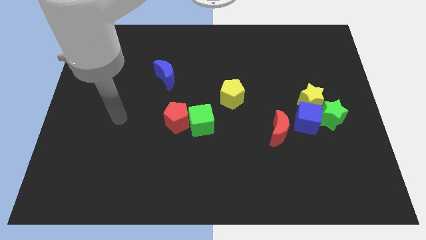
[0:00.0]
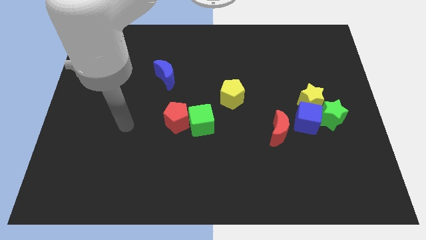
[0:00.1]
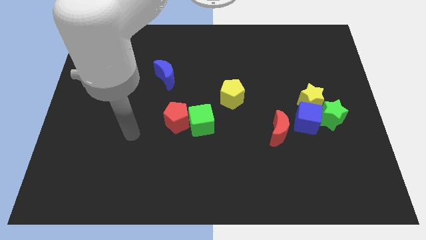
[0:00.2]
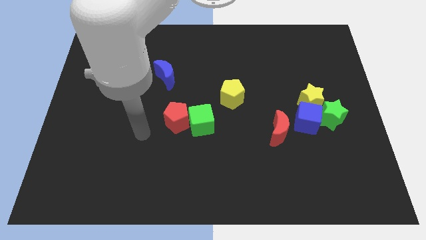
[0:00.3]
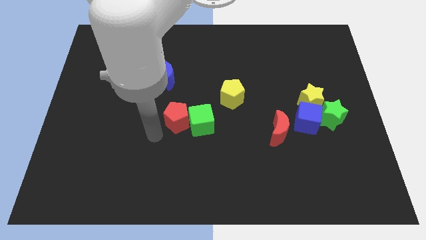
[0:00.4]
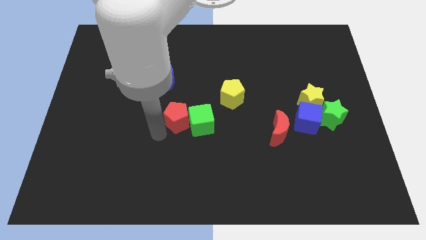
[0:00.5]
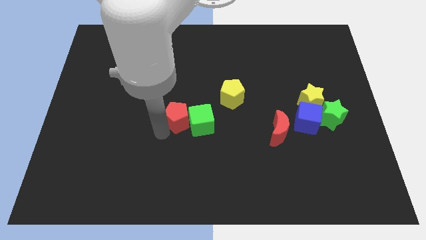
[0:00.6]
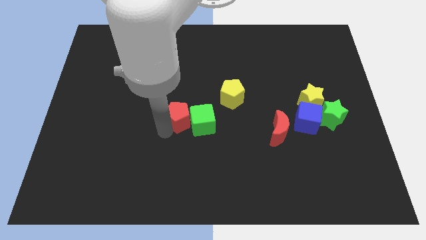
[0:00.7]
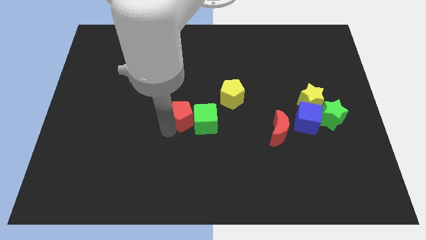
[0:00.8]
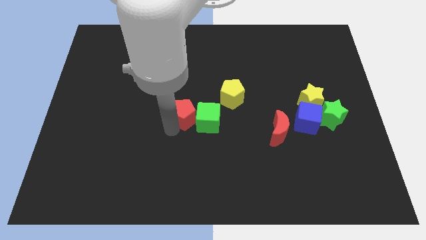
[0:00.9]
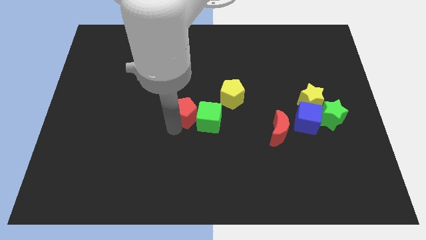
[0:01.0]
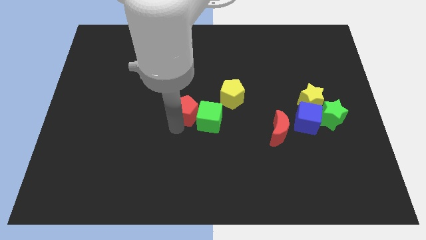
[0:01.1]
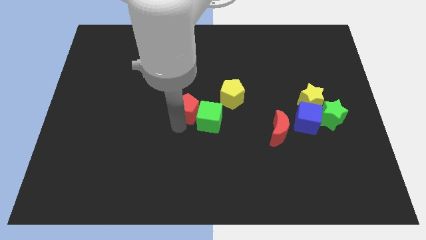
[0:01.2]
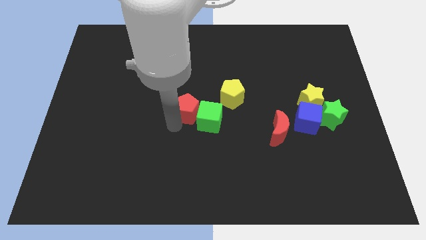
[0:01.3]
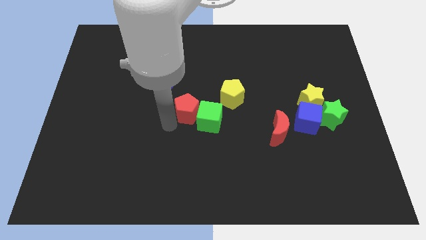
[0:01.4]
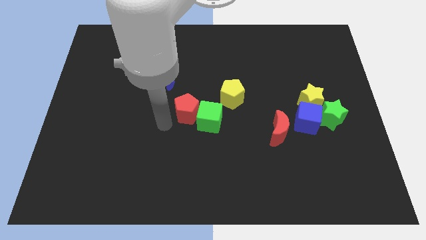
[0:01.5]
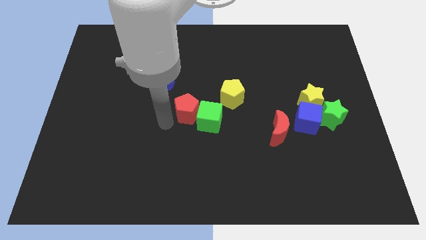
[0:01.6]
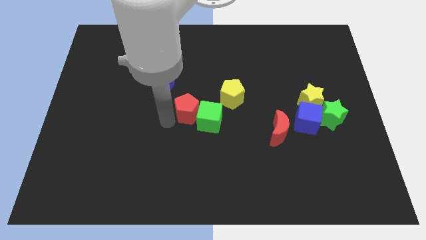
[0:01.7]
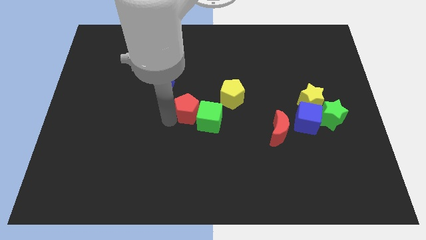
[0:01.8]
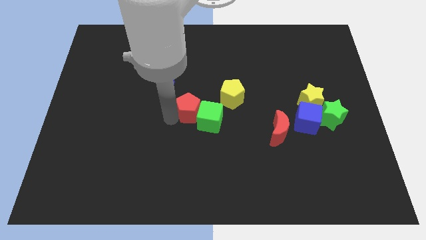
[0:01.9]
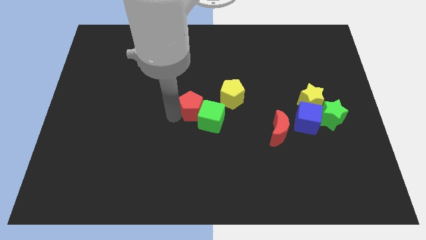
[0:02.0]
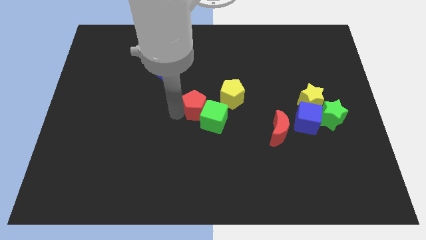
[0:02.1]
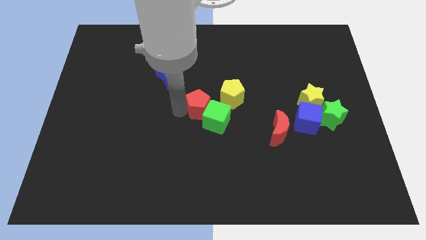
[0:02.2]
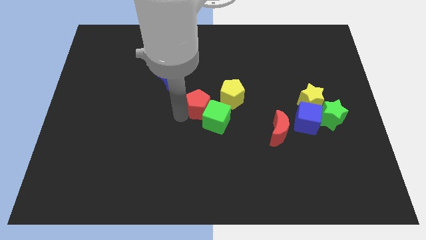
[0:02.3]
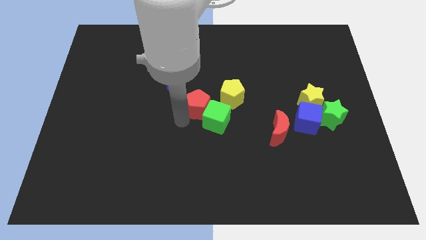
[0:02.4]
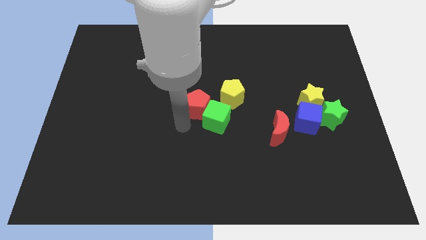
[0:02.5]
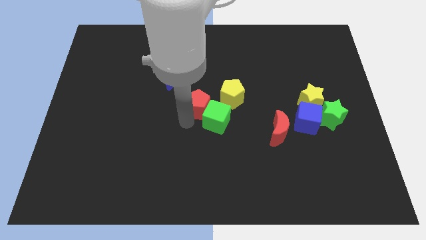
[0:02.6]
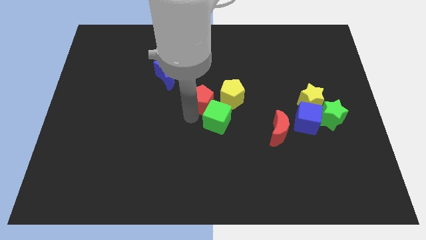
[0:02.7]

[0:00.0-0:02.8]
move the red pentagon up and to the right somewhat

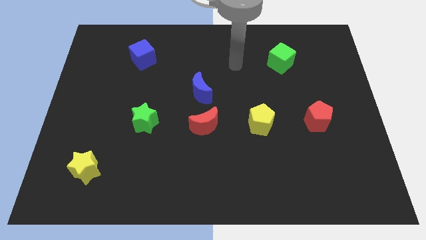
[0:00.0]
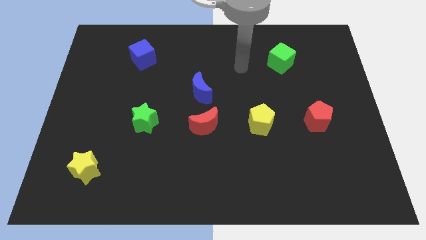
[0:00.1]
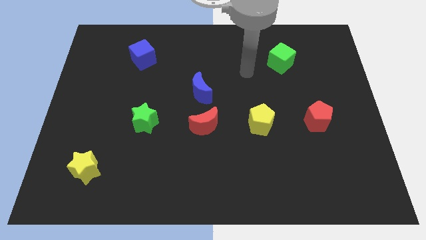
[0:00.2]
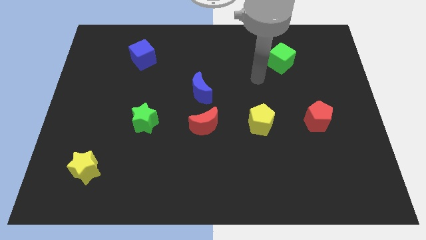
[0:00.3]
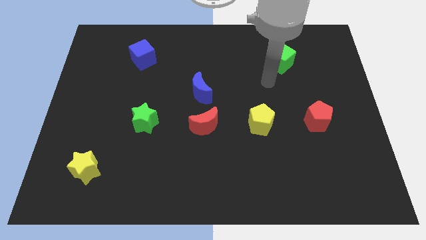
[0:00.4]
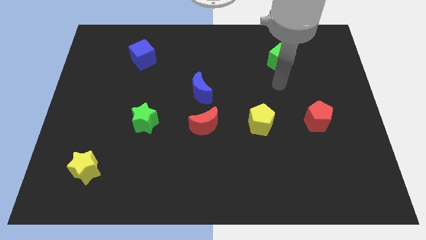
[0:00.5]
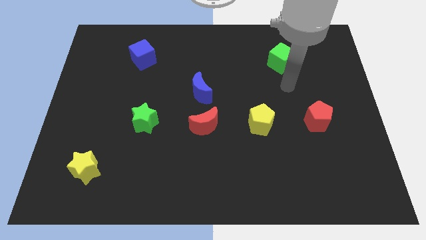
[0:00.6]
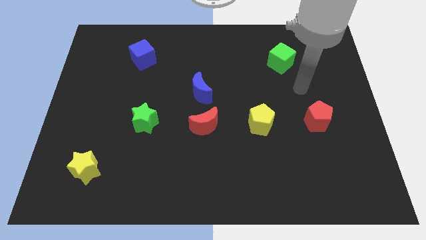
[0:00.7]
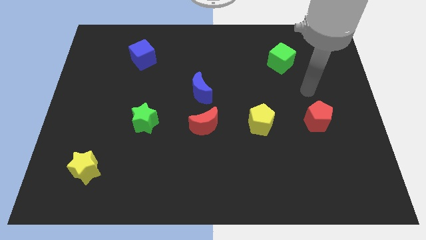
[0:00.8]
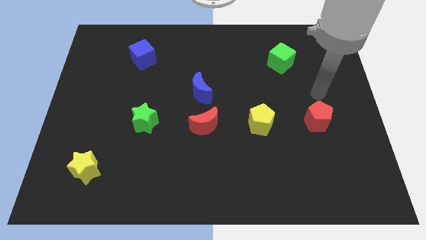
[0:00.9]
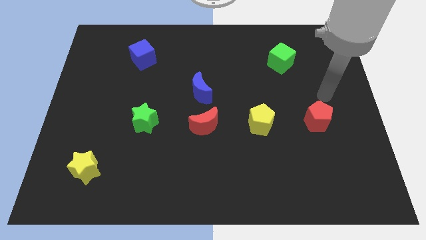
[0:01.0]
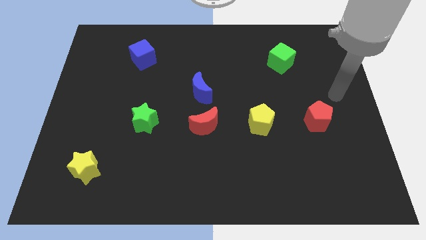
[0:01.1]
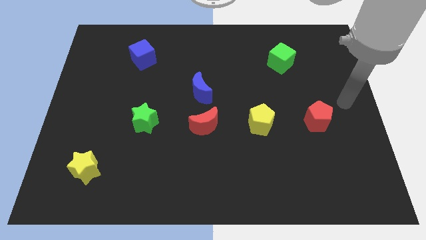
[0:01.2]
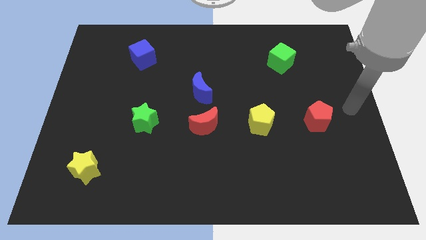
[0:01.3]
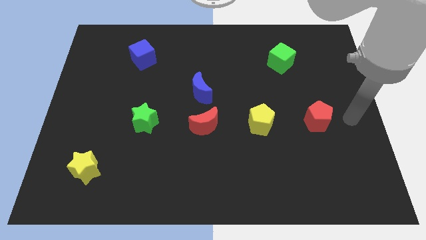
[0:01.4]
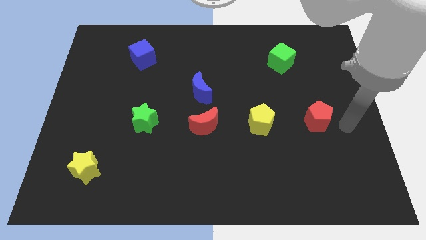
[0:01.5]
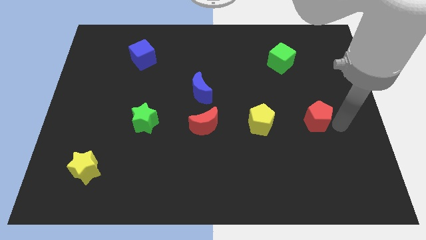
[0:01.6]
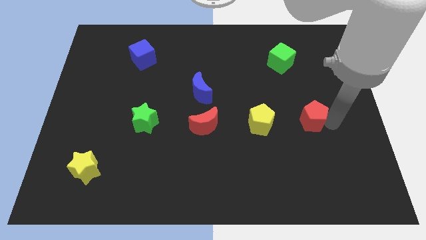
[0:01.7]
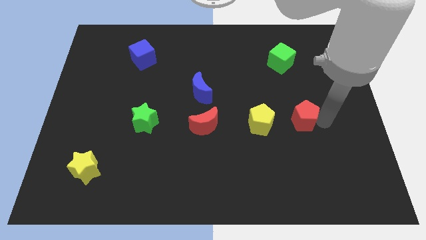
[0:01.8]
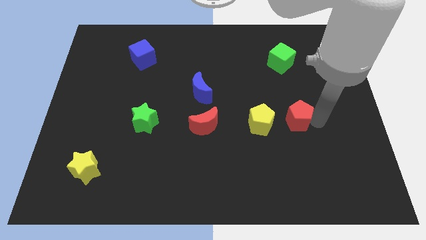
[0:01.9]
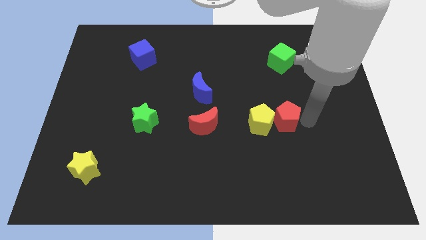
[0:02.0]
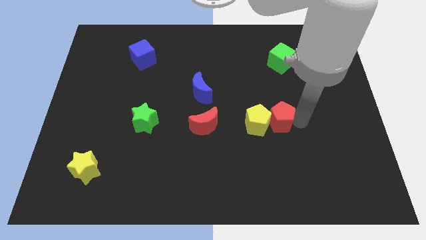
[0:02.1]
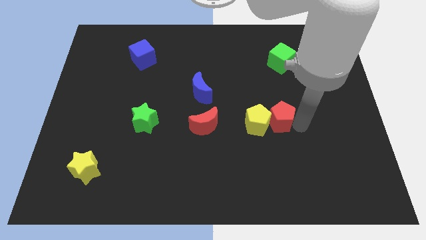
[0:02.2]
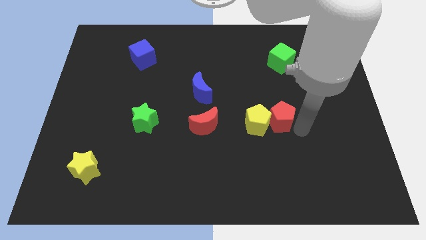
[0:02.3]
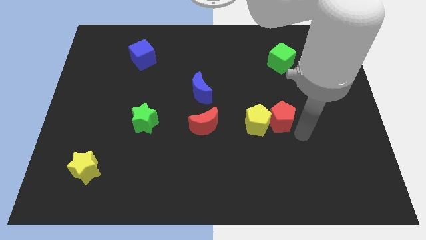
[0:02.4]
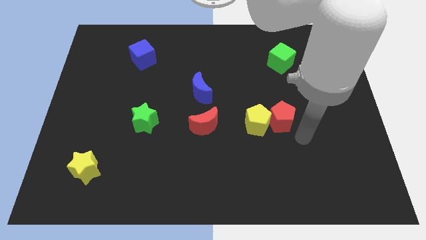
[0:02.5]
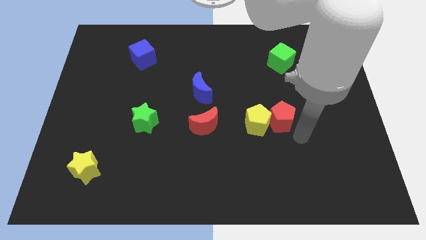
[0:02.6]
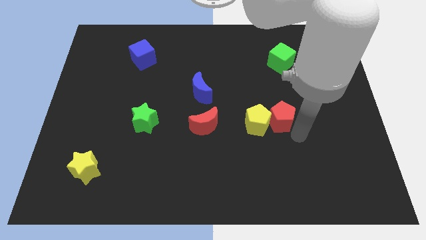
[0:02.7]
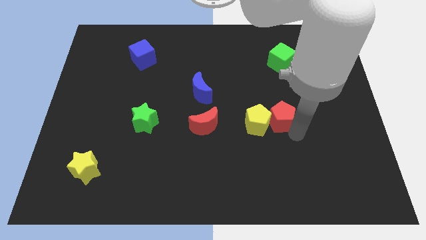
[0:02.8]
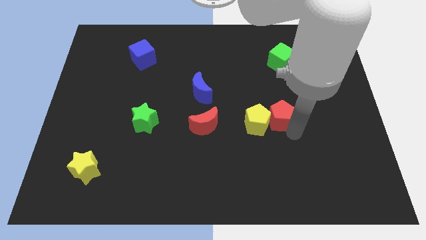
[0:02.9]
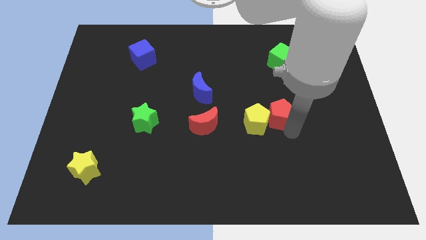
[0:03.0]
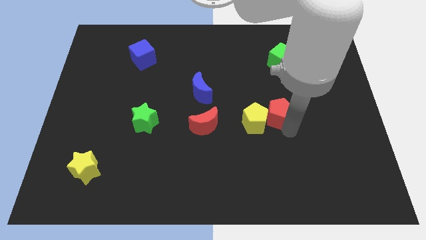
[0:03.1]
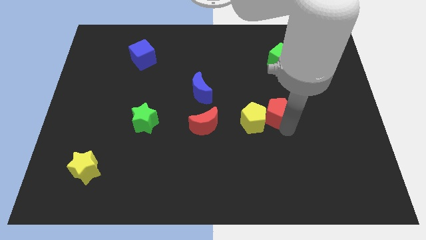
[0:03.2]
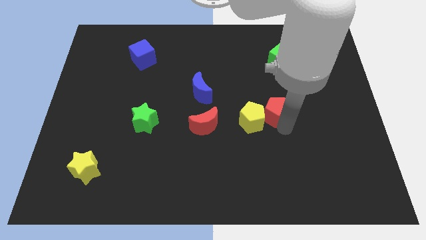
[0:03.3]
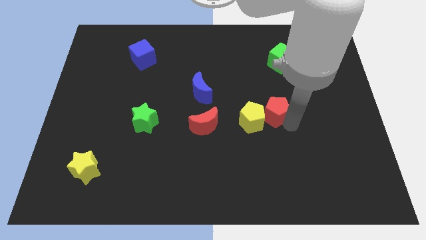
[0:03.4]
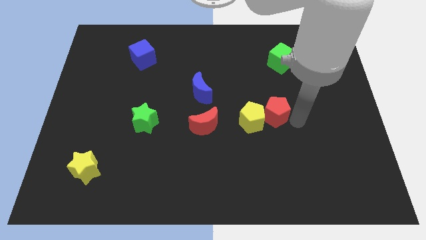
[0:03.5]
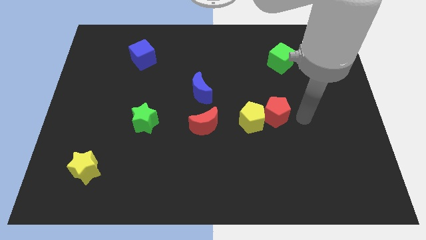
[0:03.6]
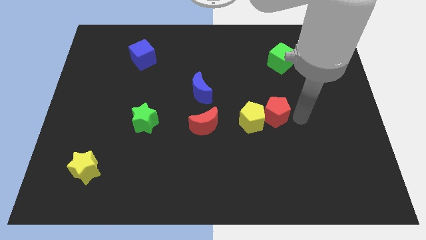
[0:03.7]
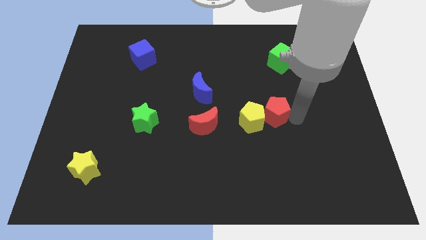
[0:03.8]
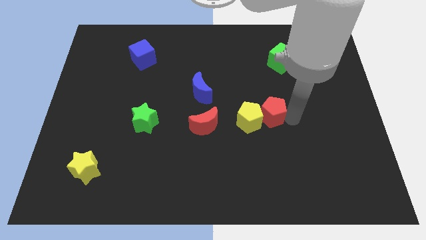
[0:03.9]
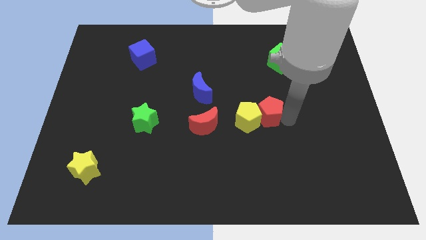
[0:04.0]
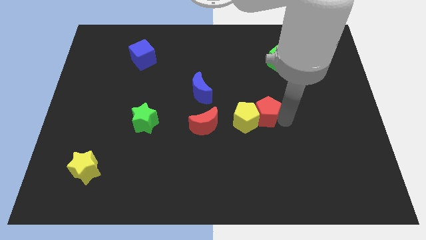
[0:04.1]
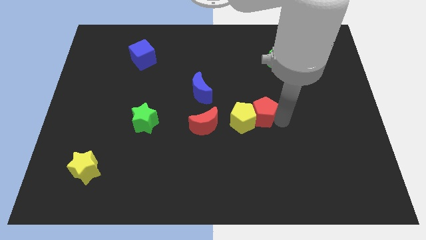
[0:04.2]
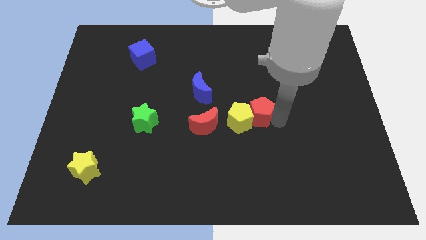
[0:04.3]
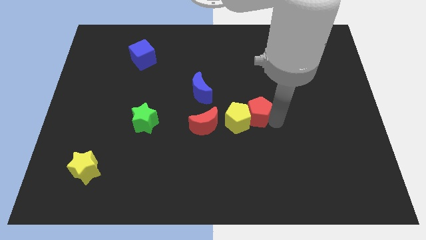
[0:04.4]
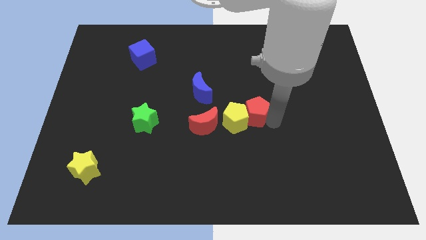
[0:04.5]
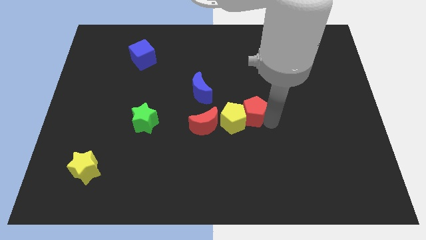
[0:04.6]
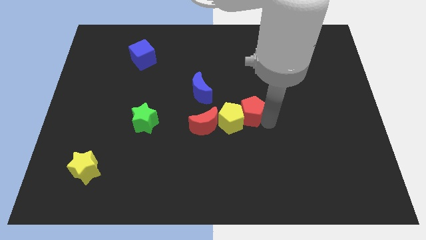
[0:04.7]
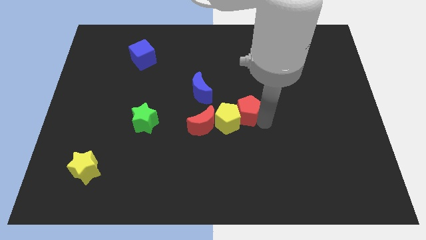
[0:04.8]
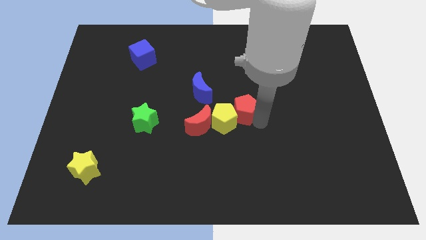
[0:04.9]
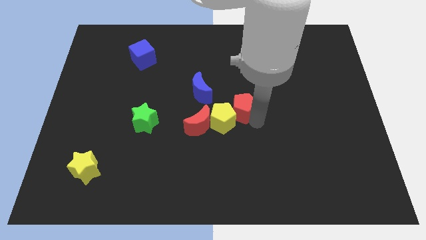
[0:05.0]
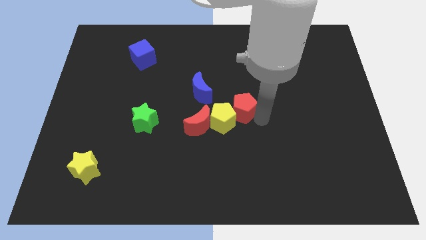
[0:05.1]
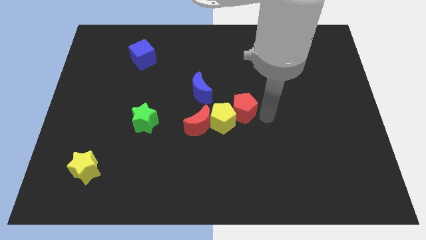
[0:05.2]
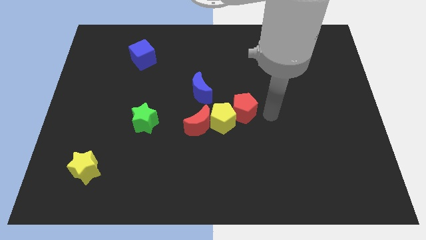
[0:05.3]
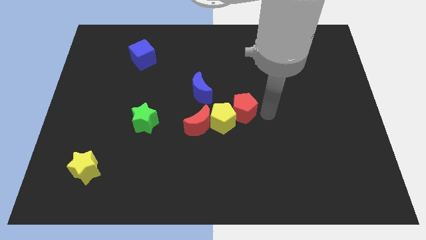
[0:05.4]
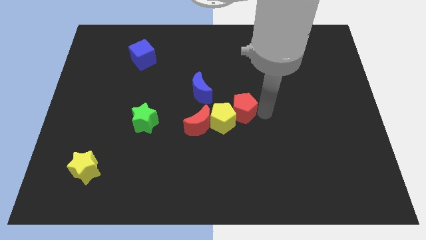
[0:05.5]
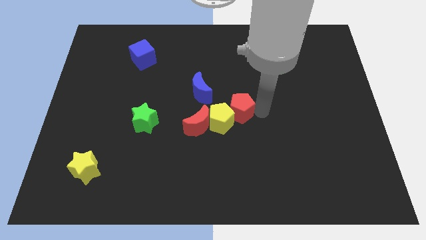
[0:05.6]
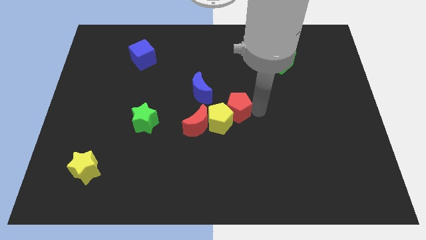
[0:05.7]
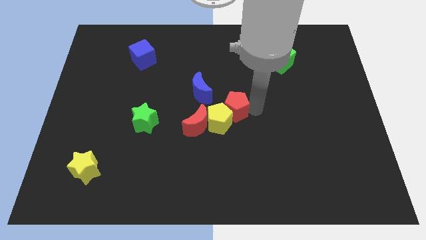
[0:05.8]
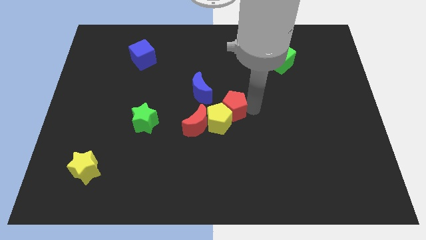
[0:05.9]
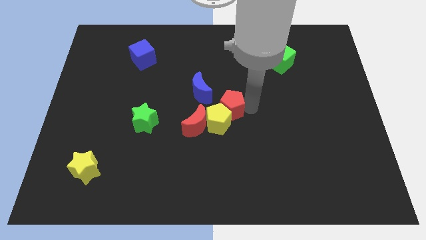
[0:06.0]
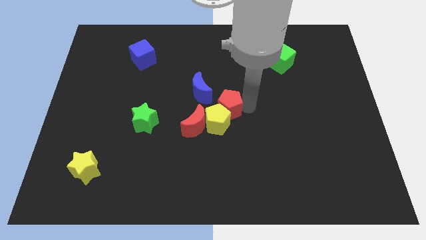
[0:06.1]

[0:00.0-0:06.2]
push the red pentagon left
